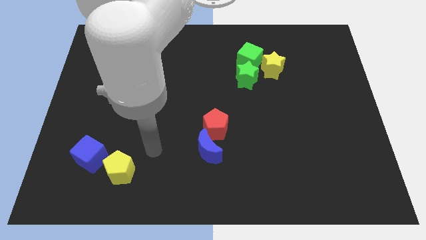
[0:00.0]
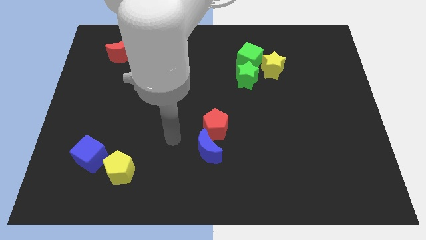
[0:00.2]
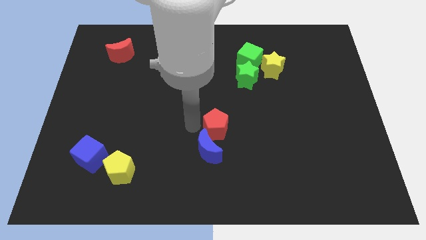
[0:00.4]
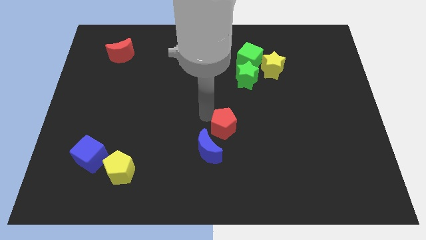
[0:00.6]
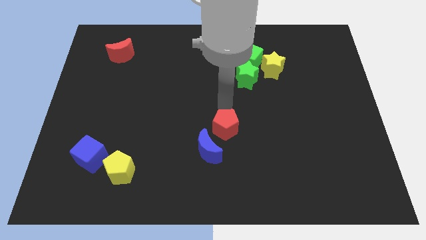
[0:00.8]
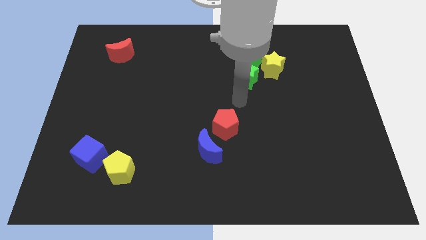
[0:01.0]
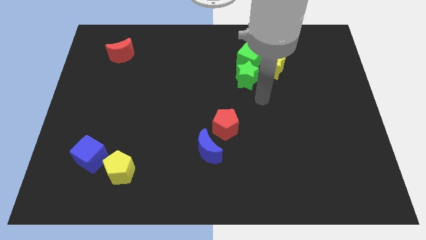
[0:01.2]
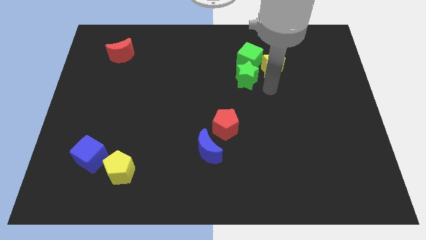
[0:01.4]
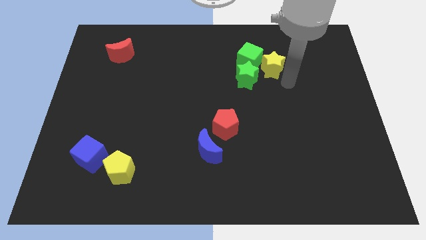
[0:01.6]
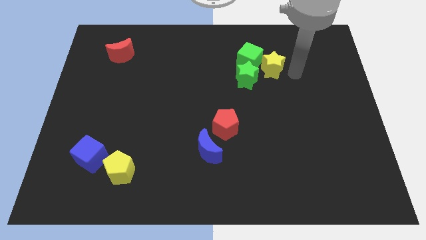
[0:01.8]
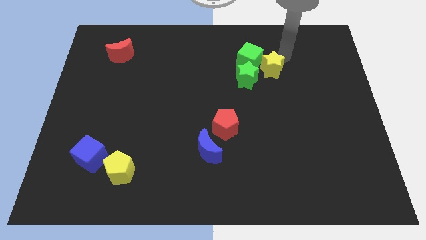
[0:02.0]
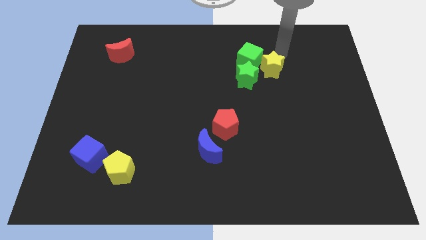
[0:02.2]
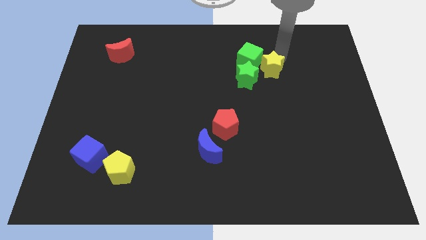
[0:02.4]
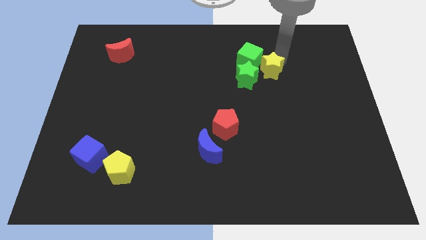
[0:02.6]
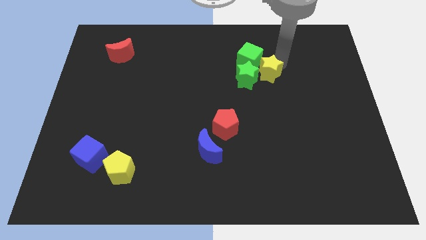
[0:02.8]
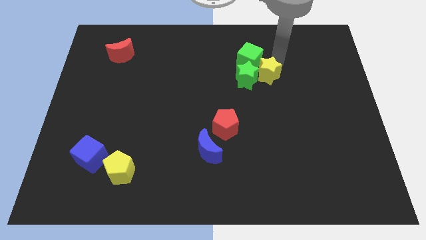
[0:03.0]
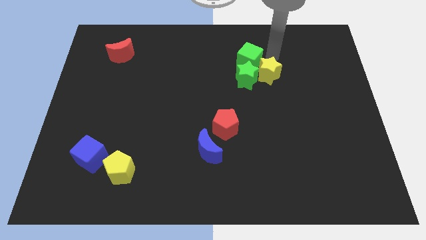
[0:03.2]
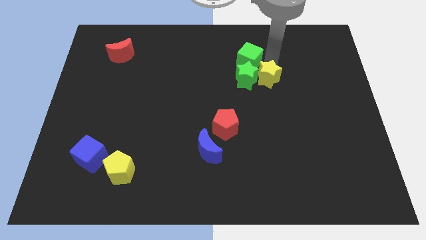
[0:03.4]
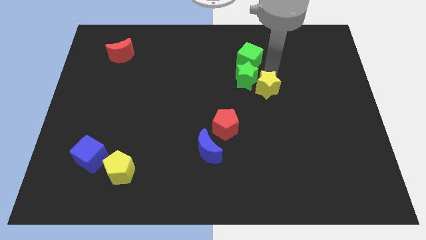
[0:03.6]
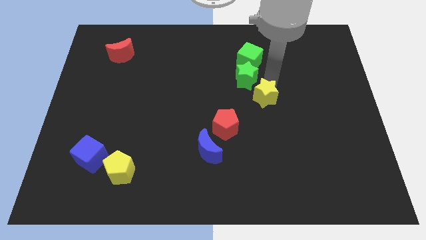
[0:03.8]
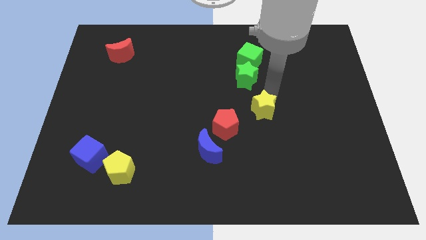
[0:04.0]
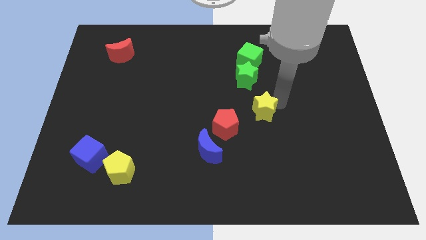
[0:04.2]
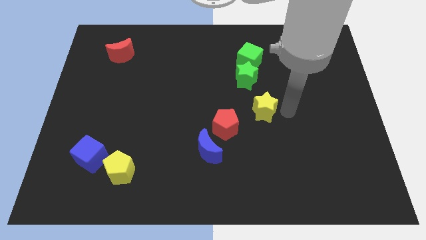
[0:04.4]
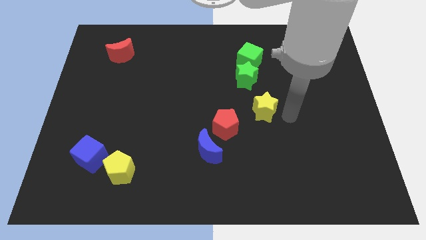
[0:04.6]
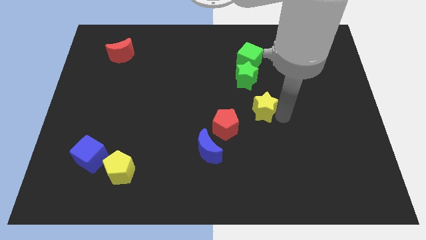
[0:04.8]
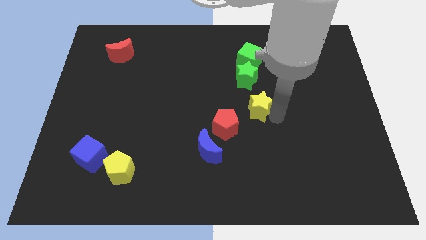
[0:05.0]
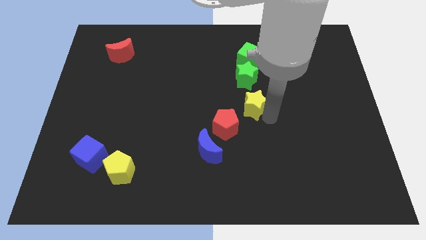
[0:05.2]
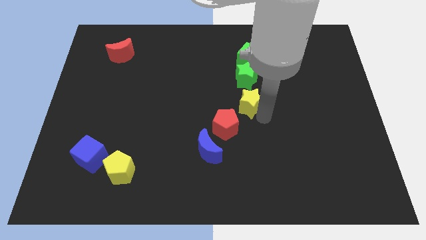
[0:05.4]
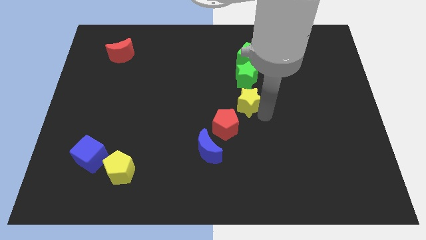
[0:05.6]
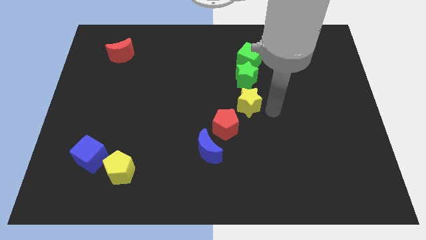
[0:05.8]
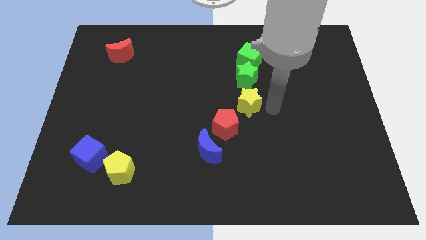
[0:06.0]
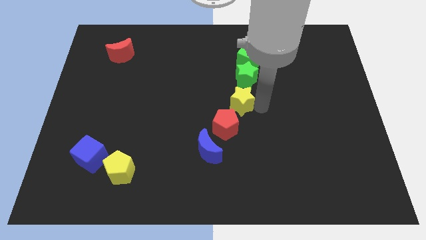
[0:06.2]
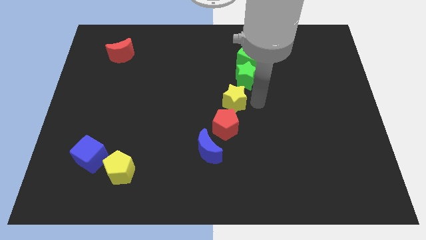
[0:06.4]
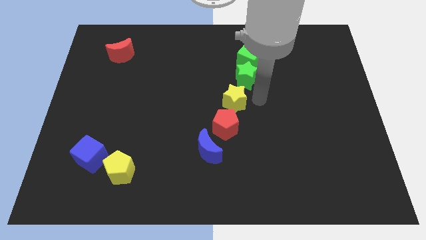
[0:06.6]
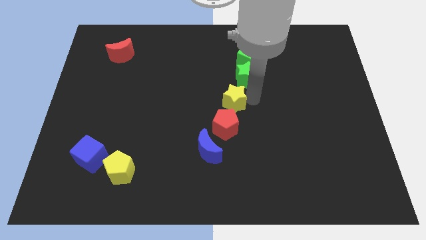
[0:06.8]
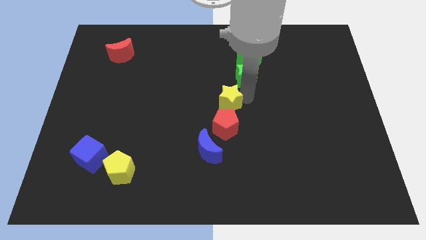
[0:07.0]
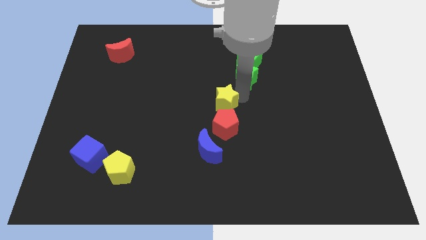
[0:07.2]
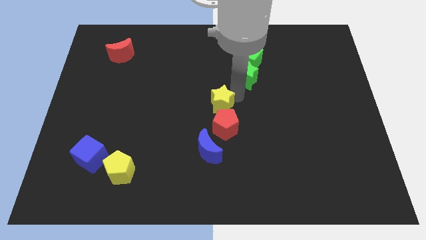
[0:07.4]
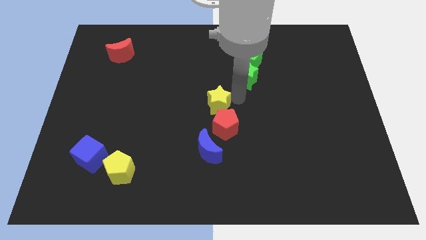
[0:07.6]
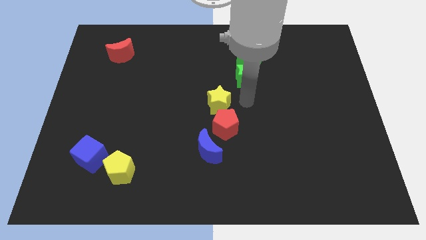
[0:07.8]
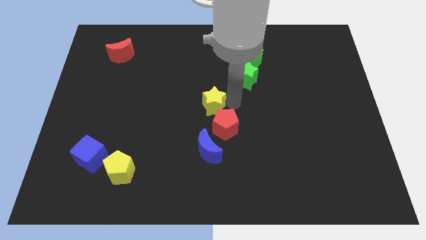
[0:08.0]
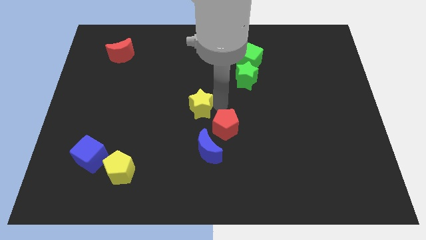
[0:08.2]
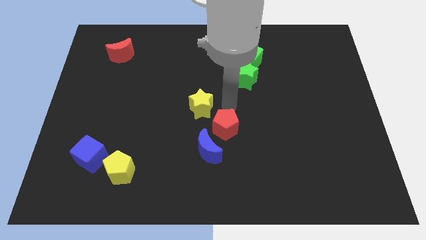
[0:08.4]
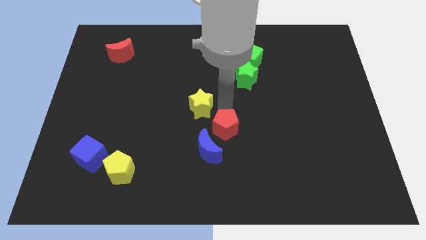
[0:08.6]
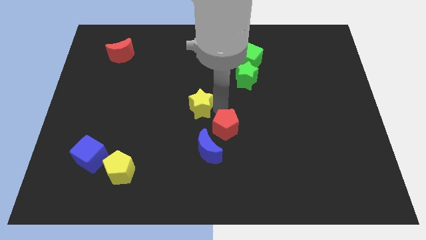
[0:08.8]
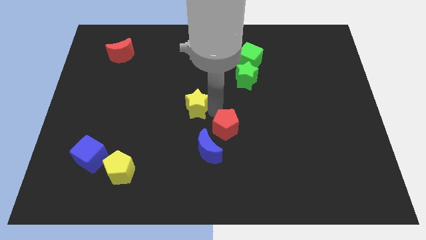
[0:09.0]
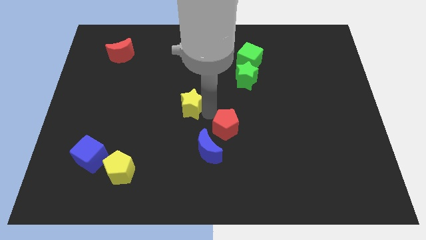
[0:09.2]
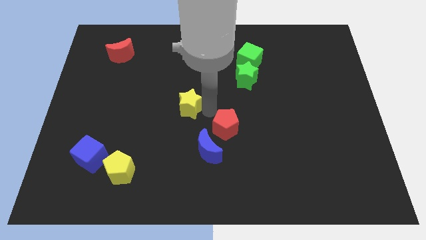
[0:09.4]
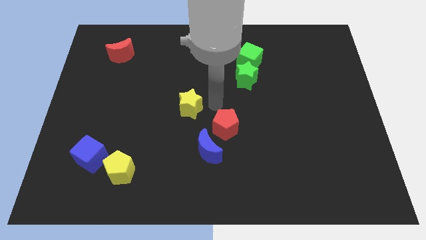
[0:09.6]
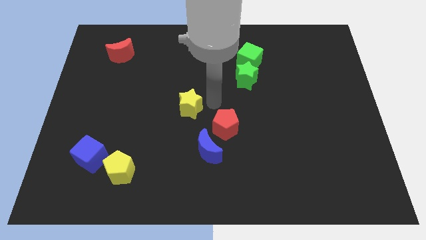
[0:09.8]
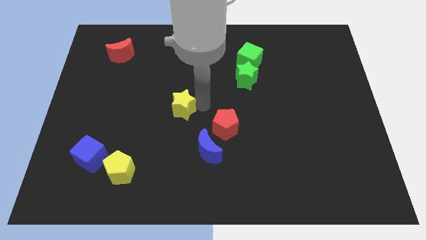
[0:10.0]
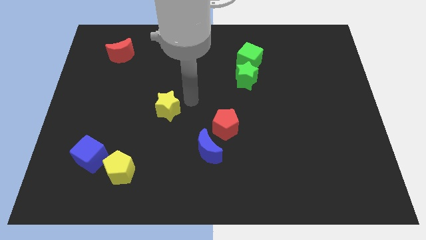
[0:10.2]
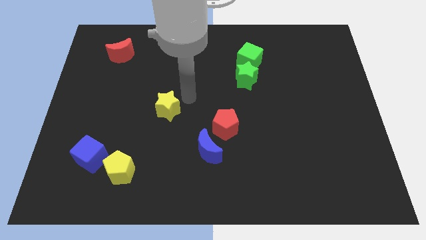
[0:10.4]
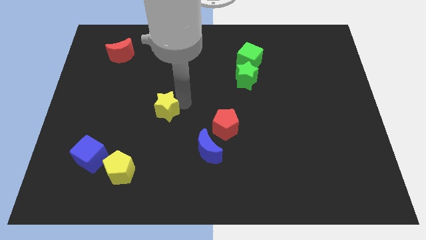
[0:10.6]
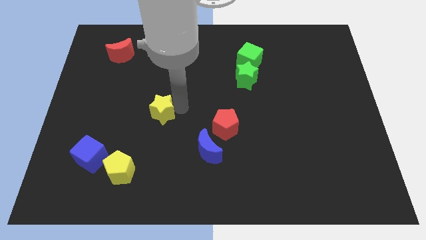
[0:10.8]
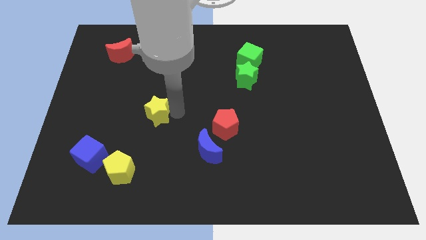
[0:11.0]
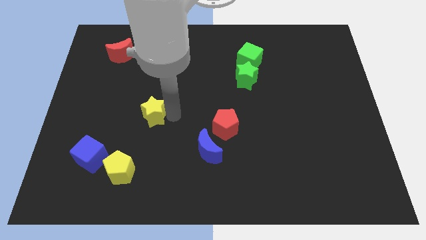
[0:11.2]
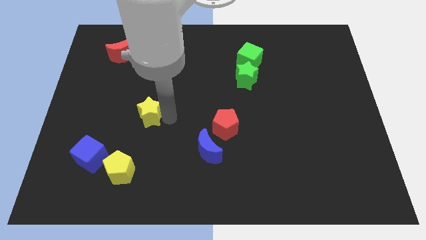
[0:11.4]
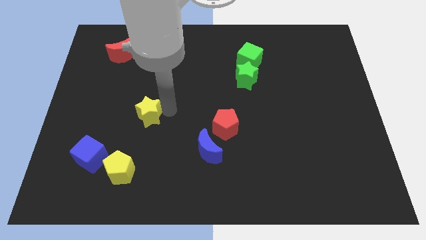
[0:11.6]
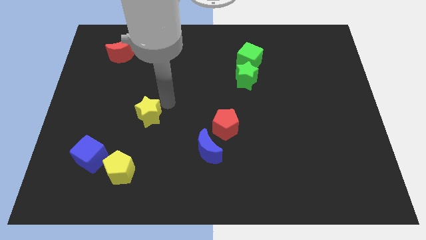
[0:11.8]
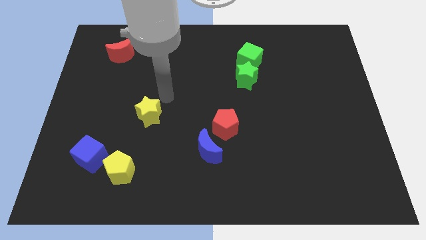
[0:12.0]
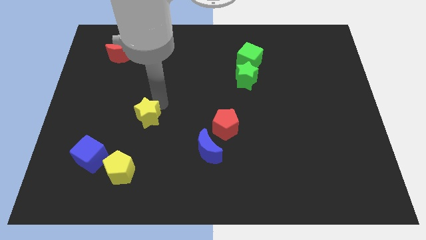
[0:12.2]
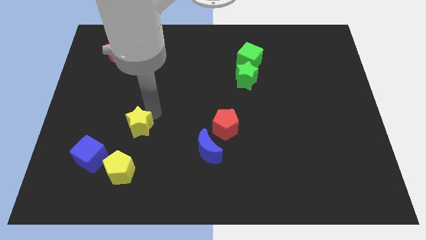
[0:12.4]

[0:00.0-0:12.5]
push the yellow star diagonally up and to the right of the blue cube
